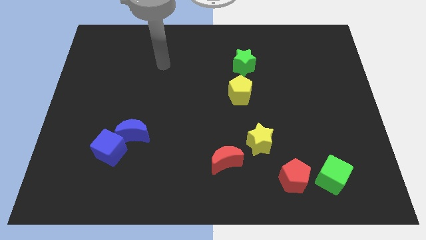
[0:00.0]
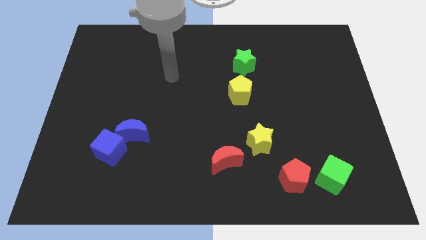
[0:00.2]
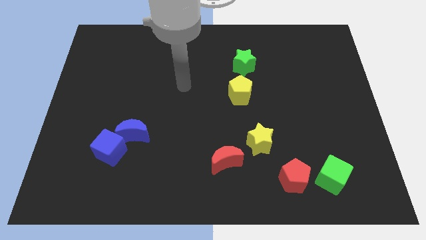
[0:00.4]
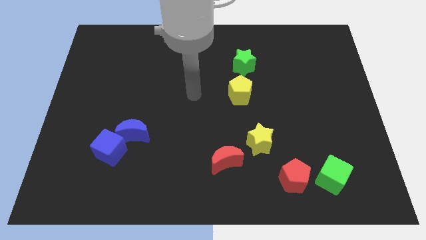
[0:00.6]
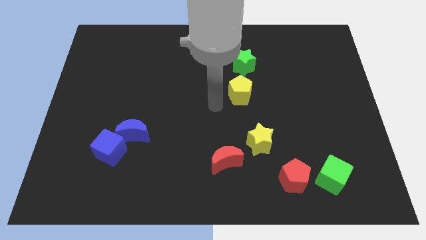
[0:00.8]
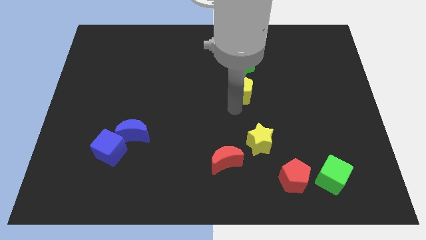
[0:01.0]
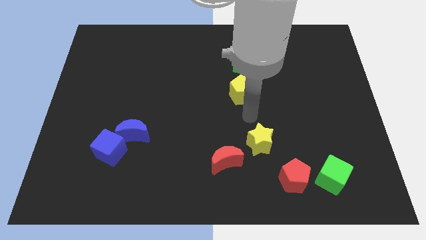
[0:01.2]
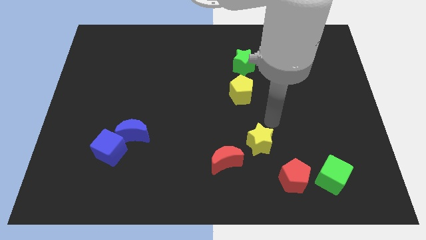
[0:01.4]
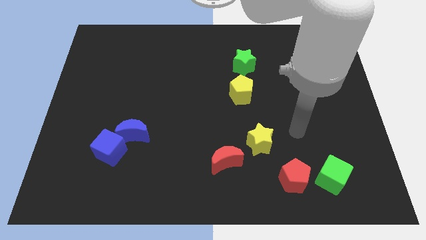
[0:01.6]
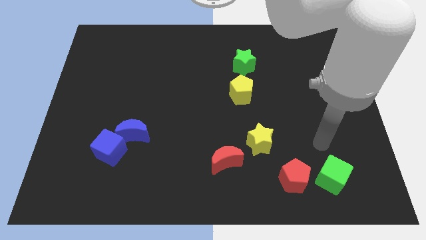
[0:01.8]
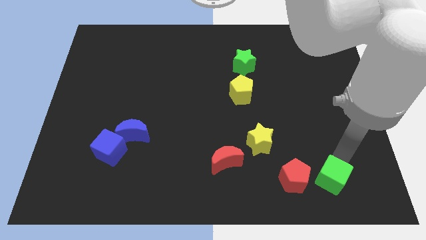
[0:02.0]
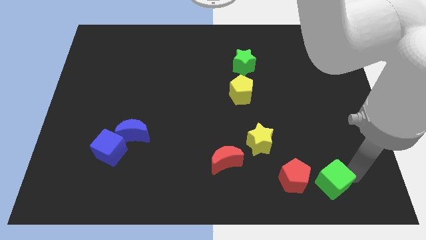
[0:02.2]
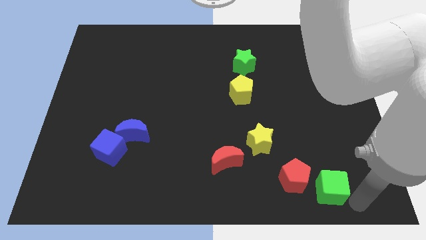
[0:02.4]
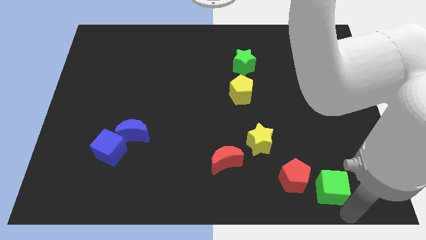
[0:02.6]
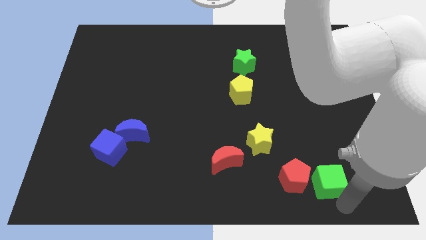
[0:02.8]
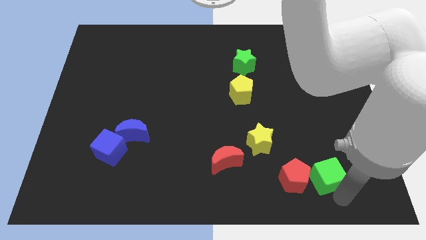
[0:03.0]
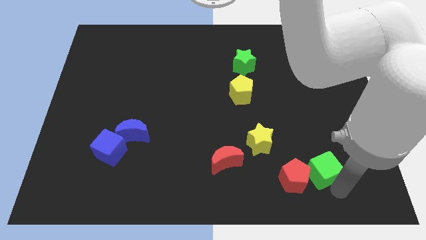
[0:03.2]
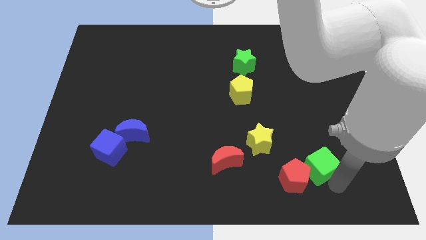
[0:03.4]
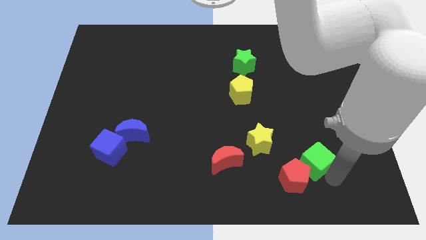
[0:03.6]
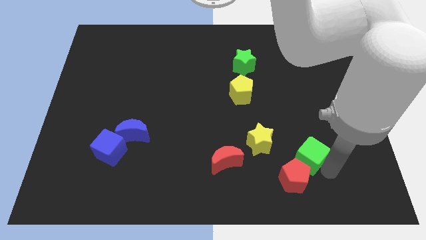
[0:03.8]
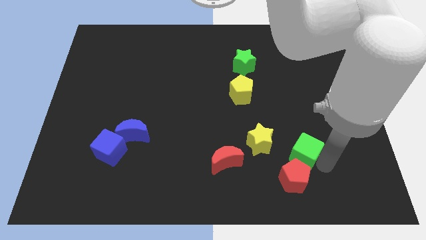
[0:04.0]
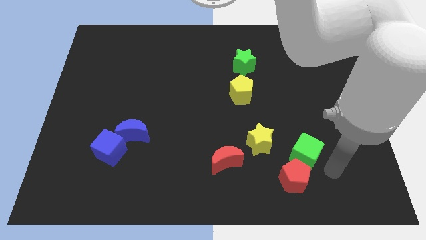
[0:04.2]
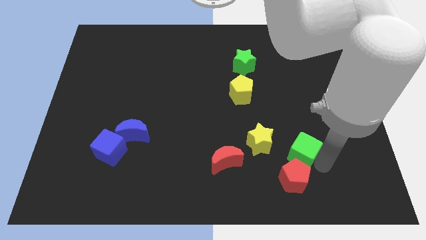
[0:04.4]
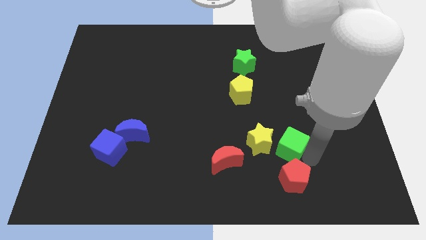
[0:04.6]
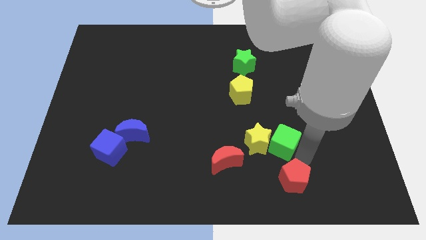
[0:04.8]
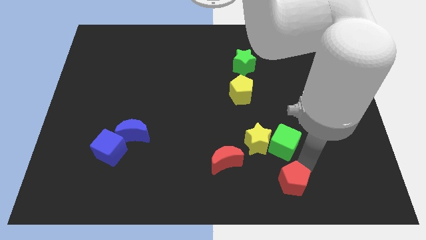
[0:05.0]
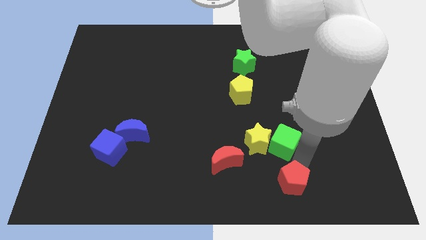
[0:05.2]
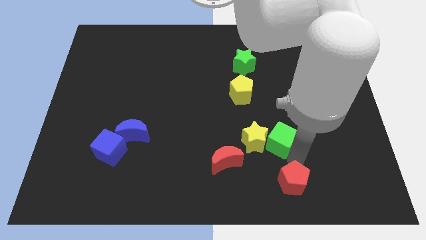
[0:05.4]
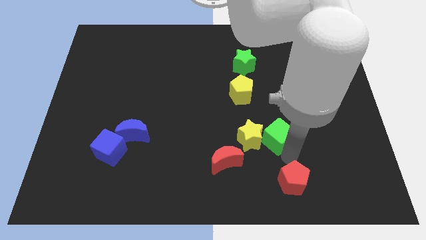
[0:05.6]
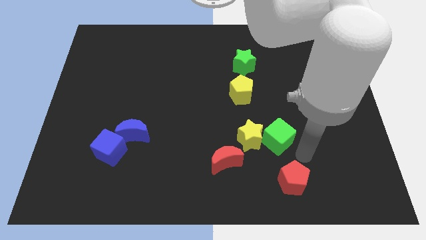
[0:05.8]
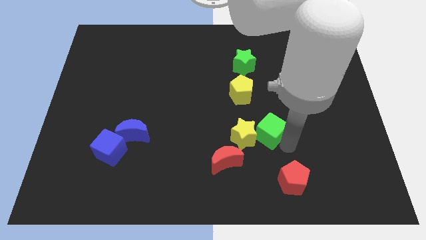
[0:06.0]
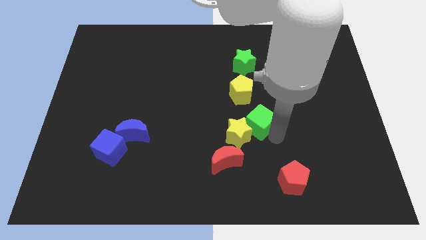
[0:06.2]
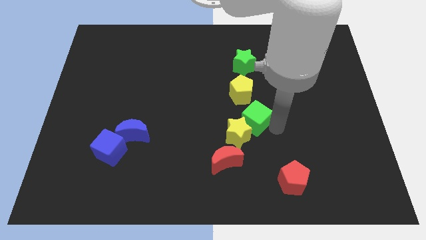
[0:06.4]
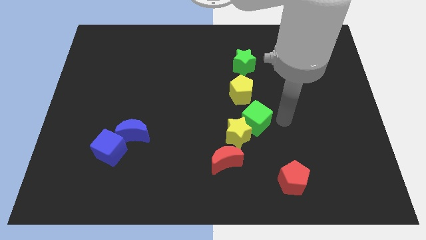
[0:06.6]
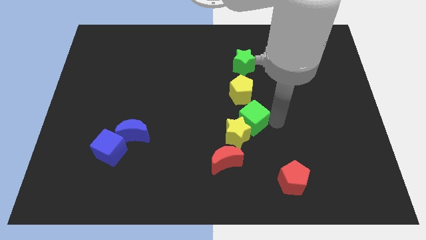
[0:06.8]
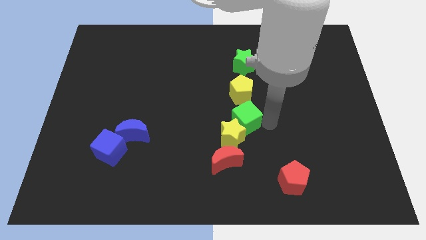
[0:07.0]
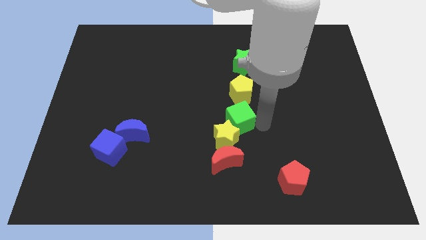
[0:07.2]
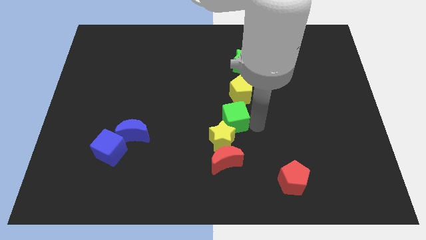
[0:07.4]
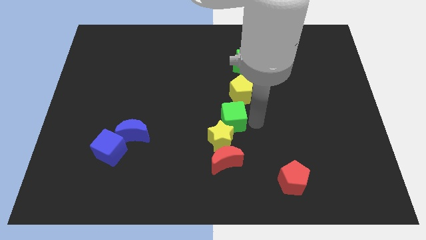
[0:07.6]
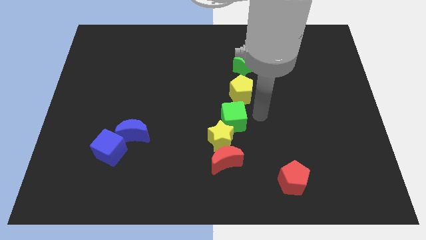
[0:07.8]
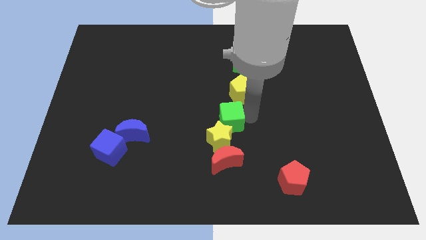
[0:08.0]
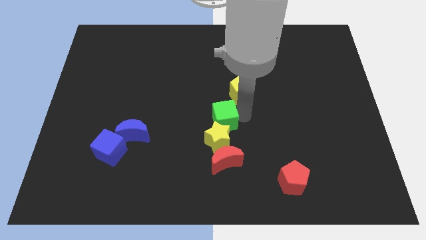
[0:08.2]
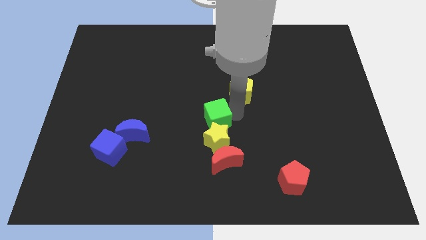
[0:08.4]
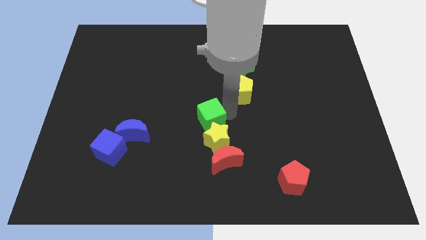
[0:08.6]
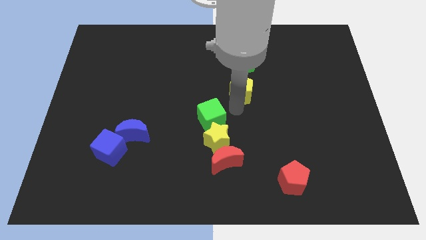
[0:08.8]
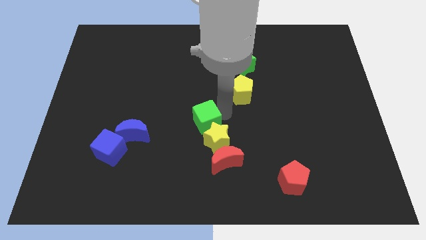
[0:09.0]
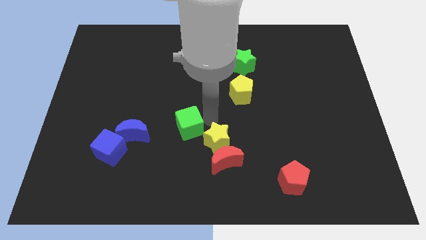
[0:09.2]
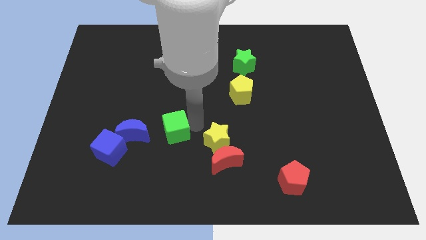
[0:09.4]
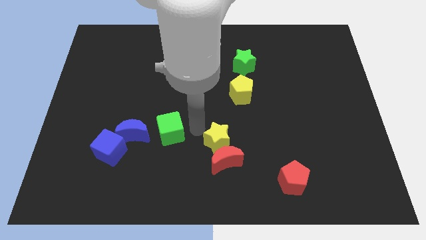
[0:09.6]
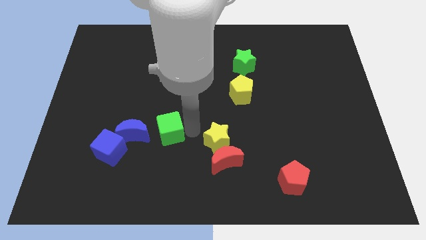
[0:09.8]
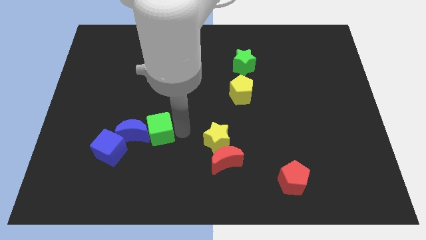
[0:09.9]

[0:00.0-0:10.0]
put the green cube close to the blue moon

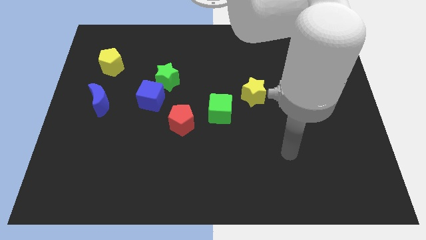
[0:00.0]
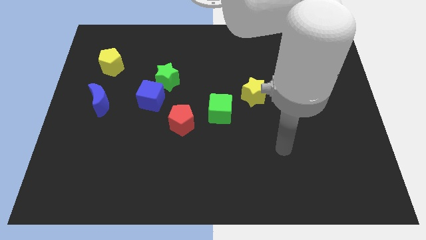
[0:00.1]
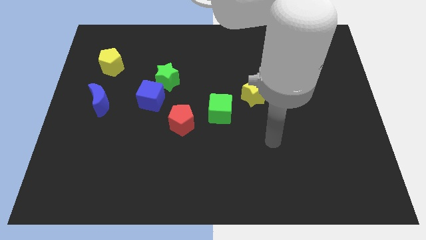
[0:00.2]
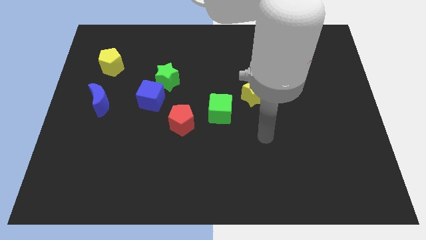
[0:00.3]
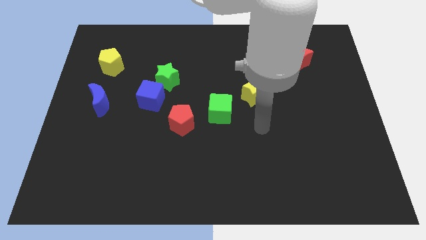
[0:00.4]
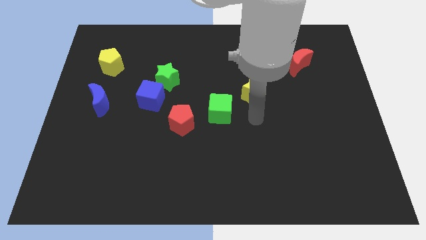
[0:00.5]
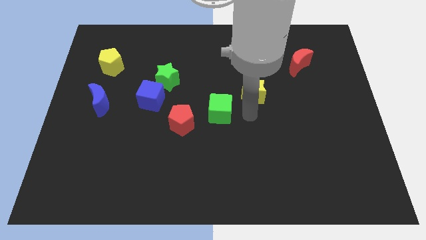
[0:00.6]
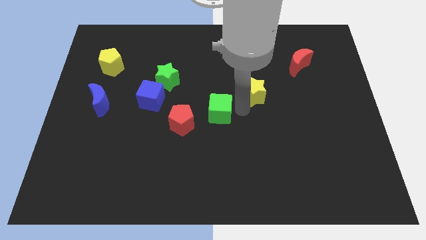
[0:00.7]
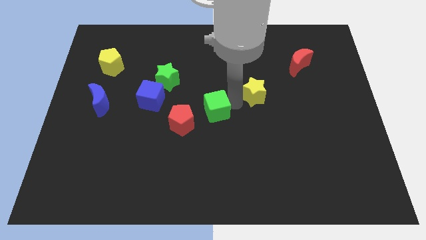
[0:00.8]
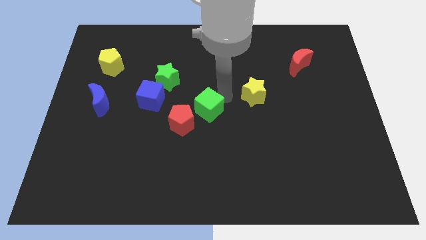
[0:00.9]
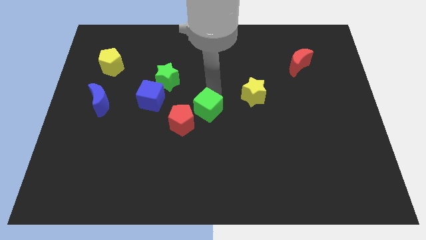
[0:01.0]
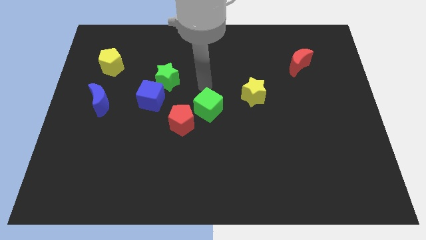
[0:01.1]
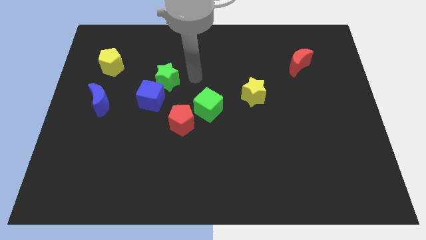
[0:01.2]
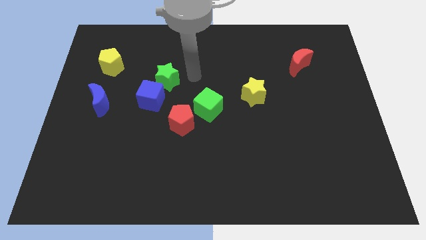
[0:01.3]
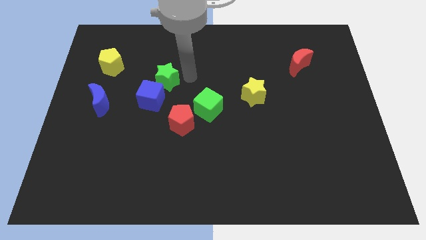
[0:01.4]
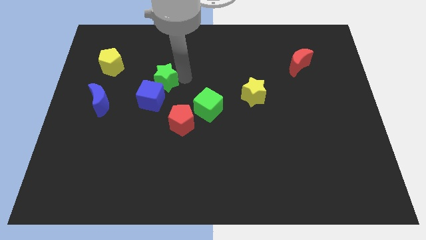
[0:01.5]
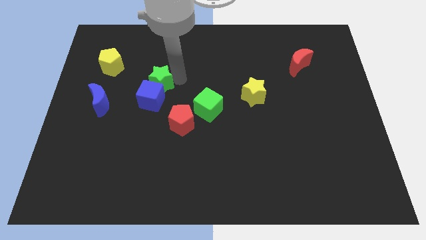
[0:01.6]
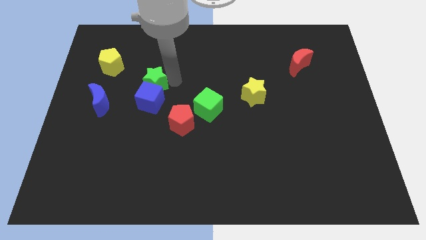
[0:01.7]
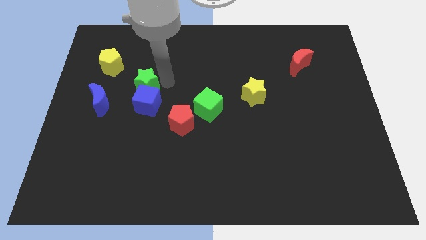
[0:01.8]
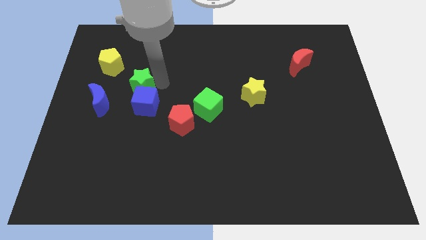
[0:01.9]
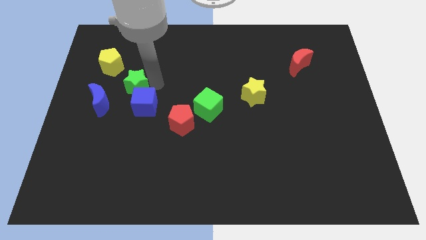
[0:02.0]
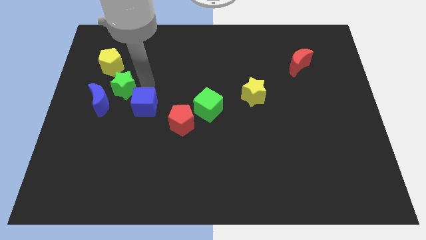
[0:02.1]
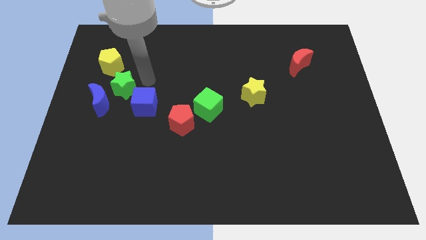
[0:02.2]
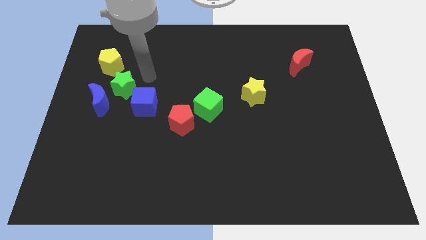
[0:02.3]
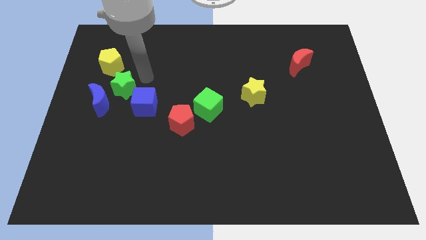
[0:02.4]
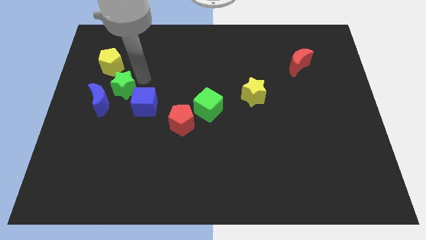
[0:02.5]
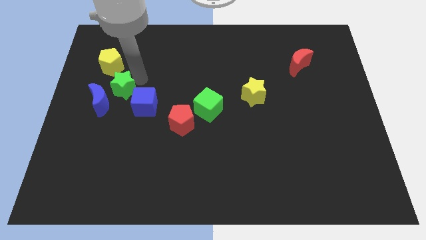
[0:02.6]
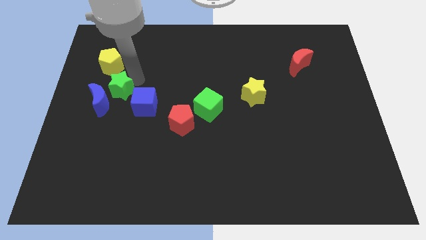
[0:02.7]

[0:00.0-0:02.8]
move the green star to the blue moon
